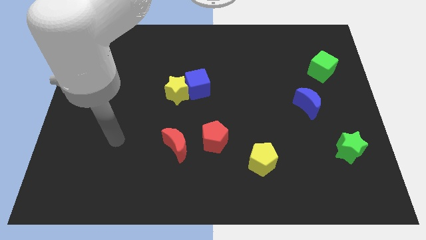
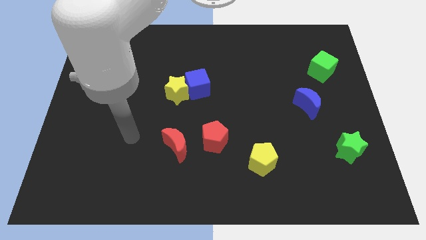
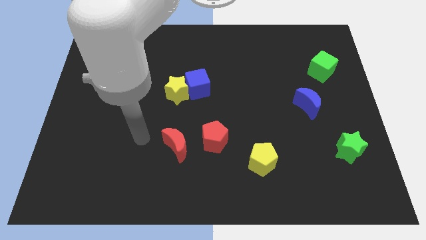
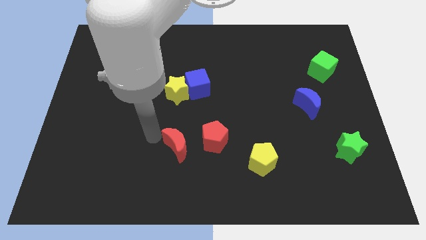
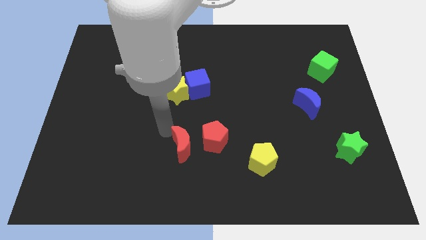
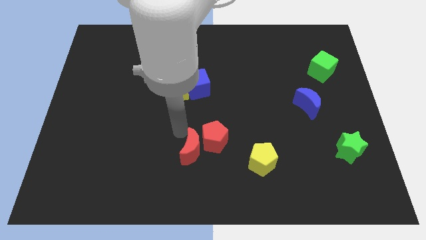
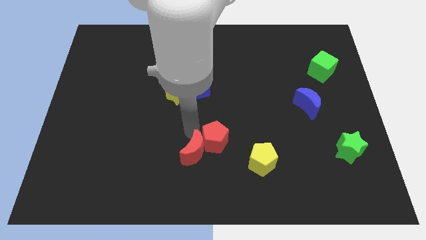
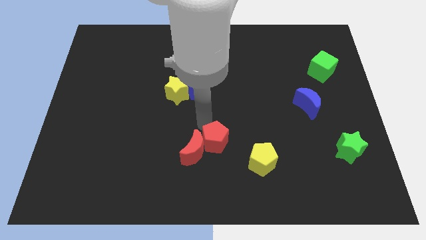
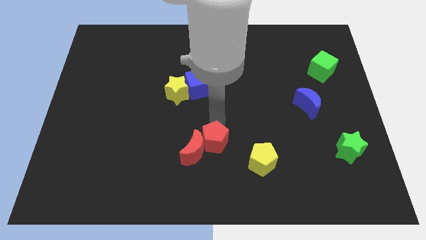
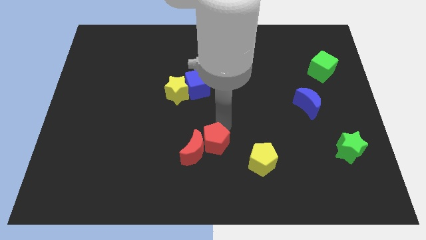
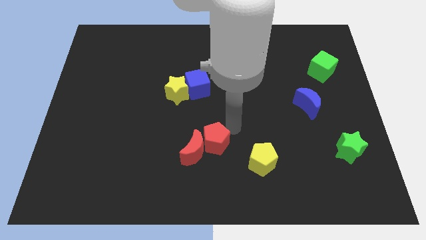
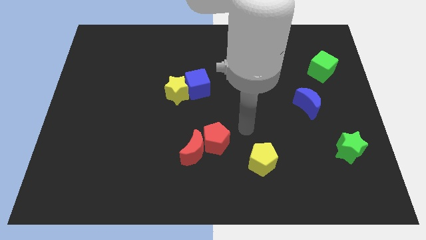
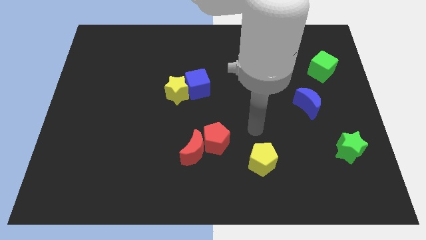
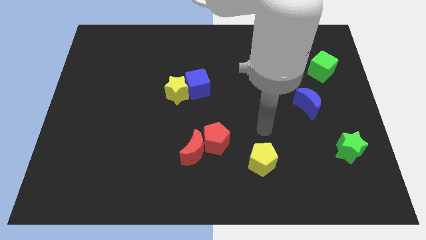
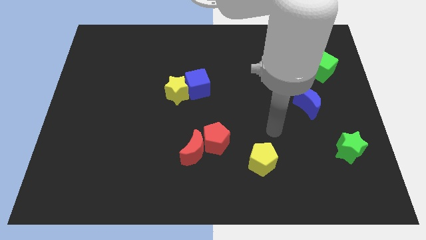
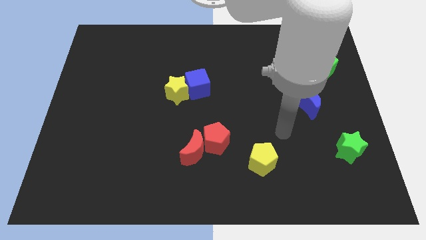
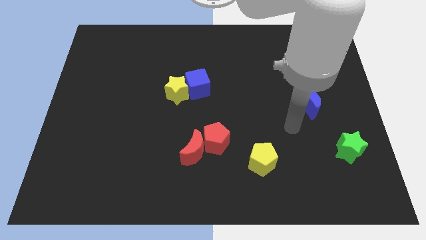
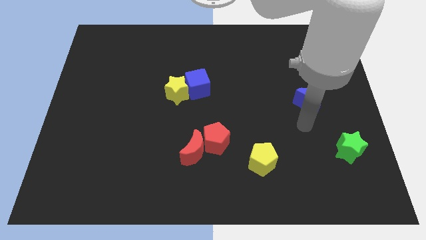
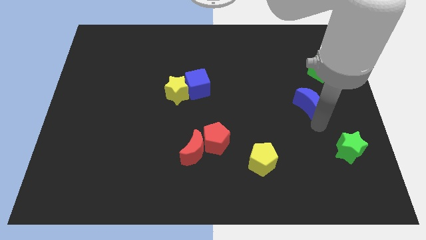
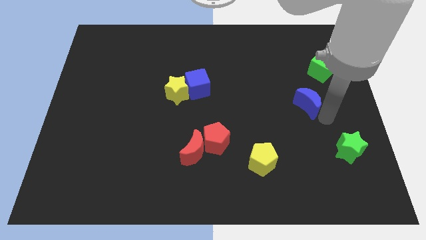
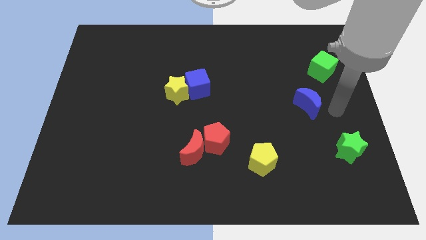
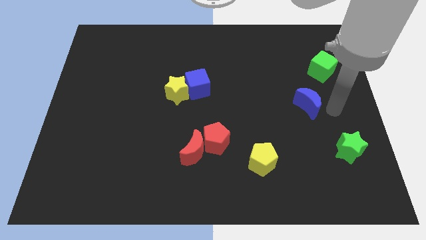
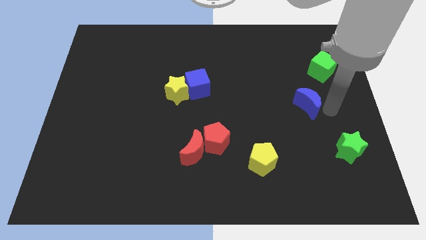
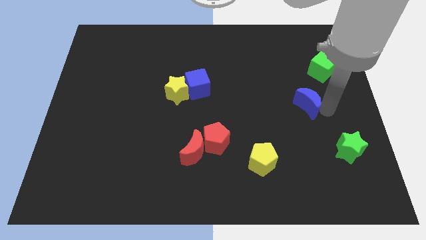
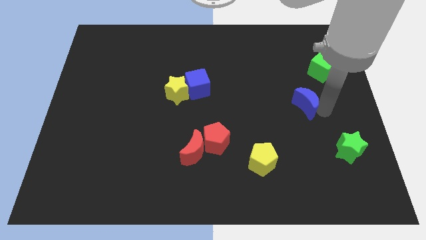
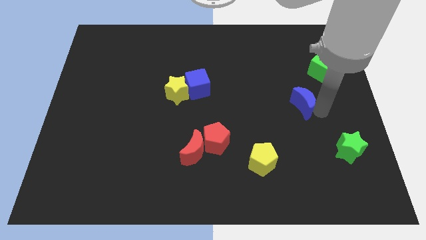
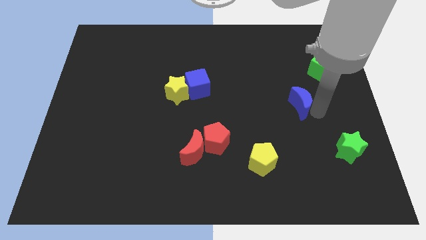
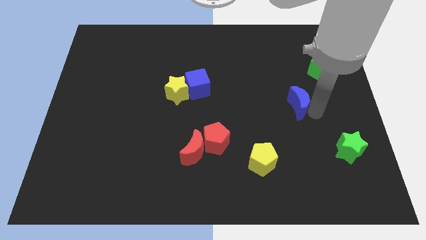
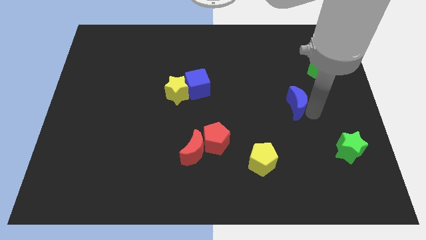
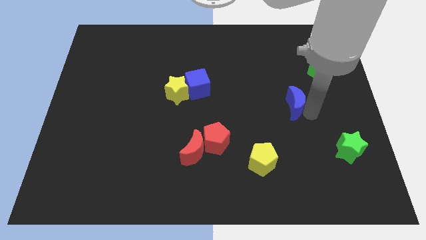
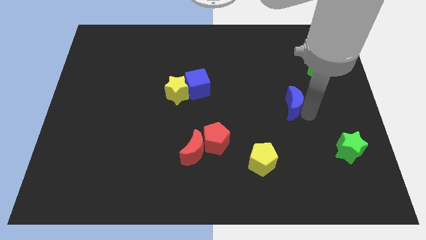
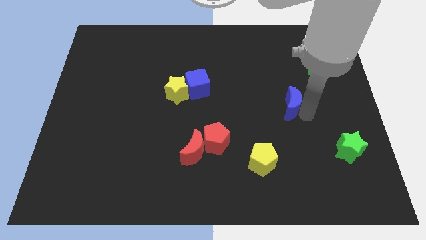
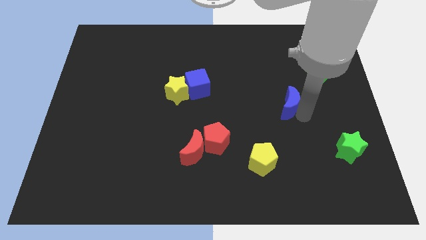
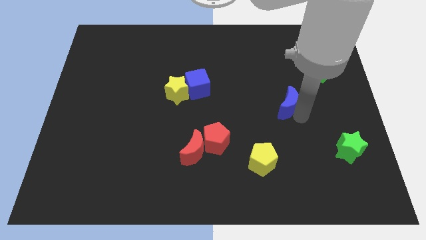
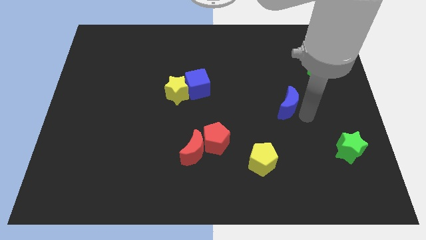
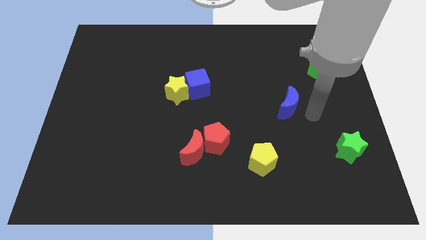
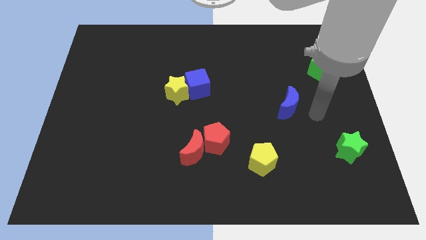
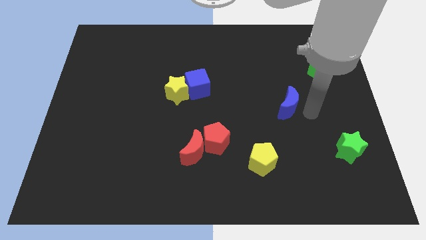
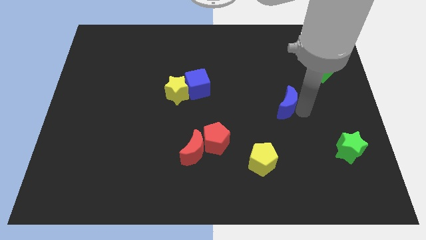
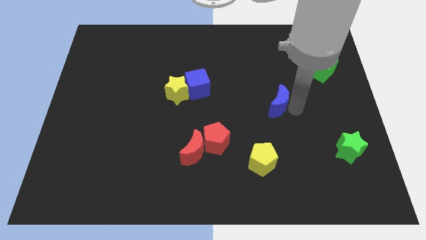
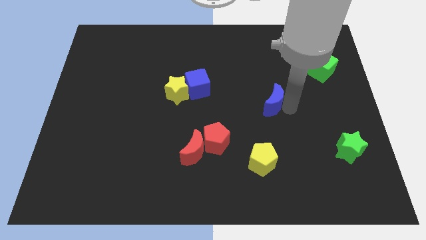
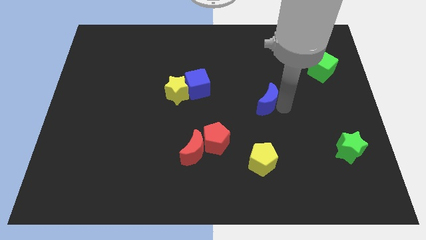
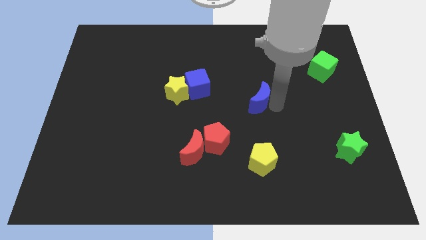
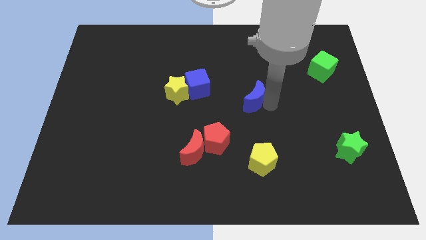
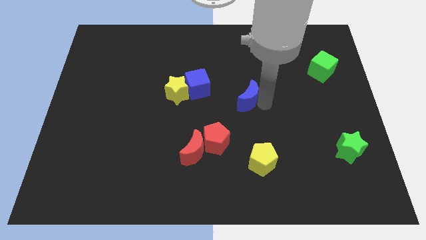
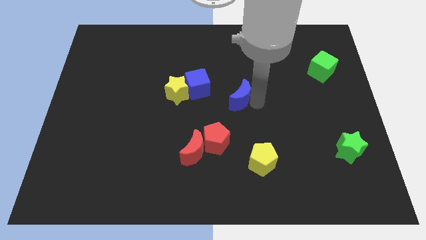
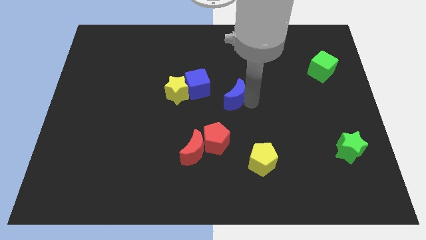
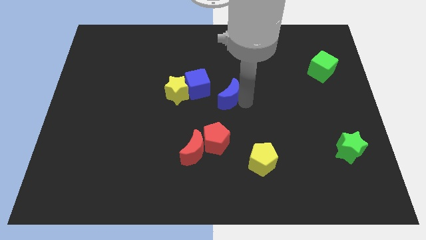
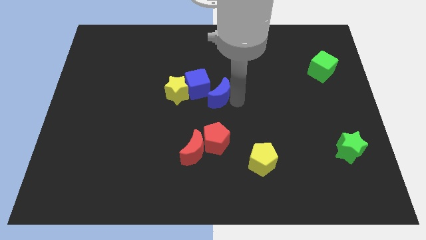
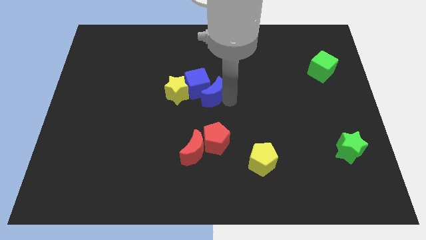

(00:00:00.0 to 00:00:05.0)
move the blue moon to the blue cube

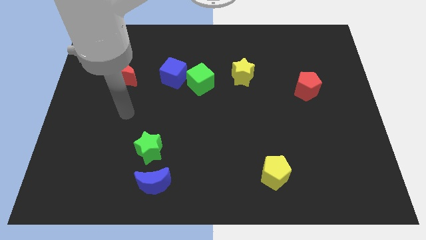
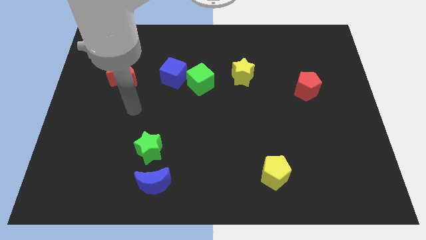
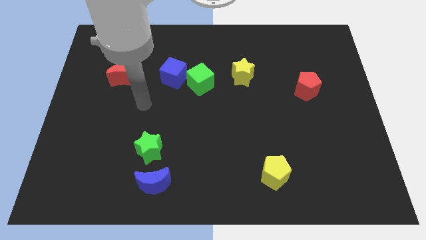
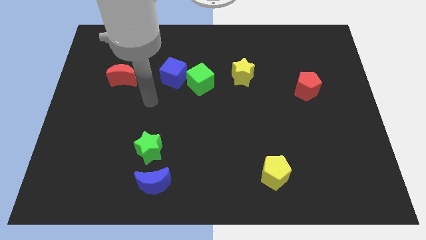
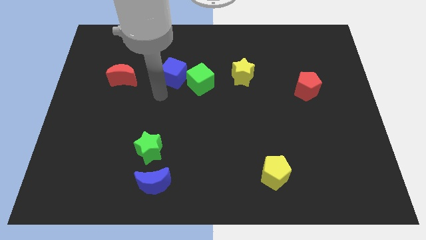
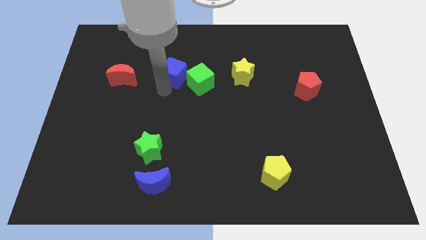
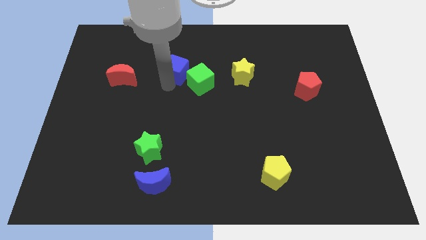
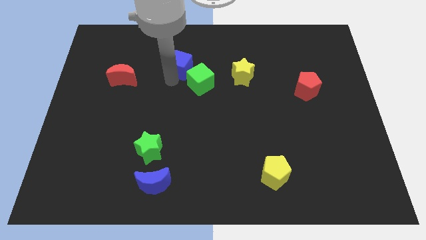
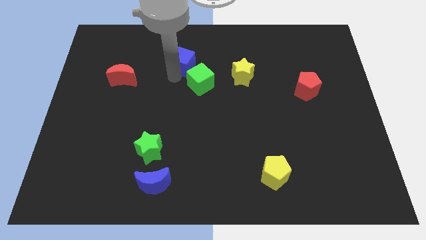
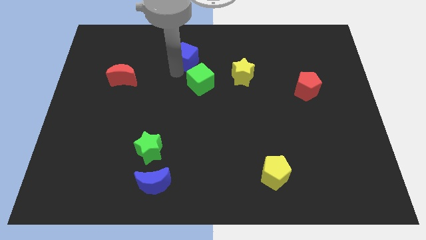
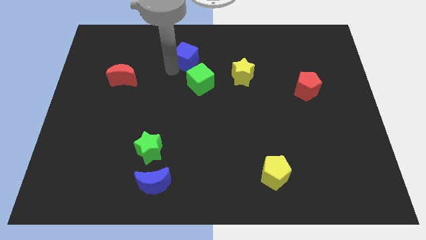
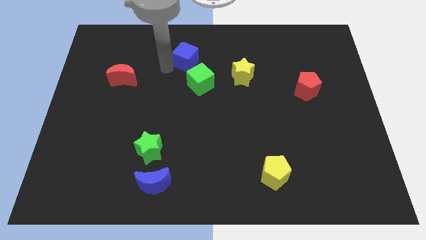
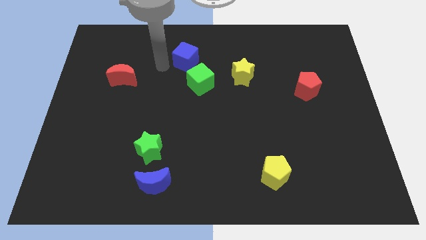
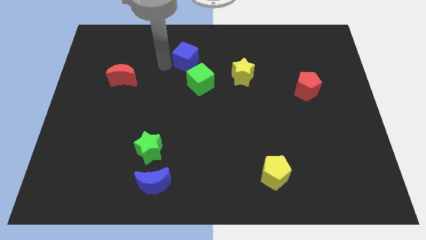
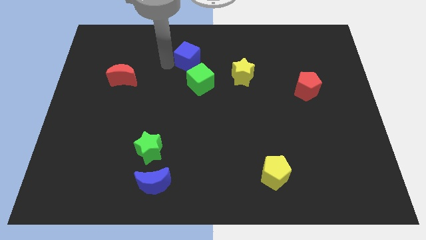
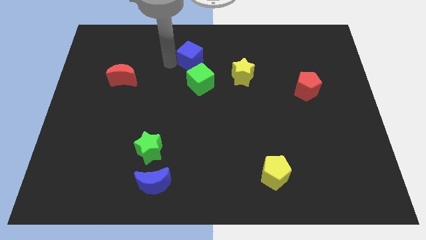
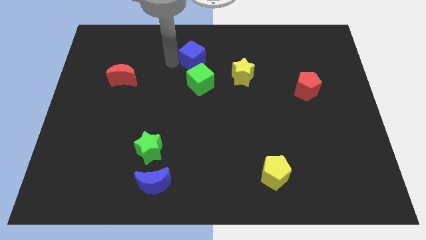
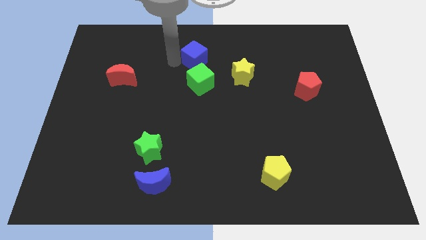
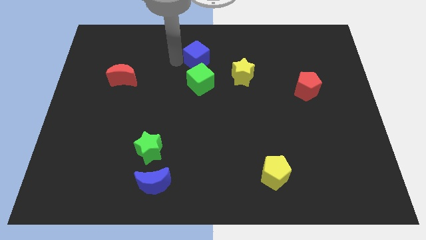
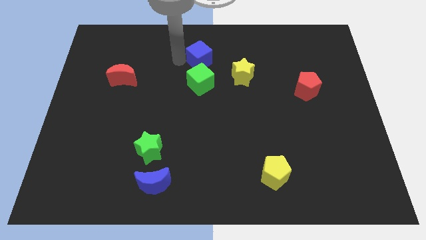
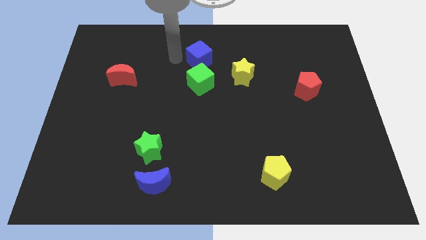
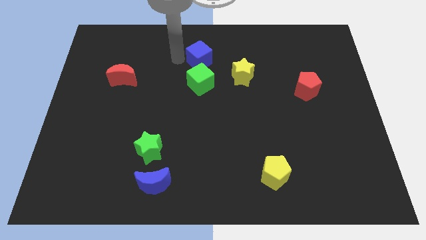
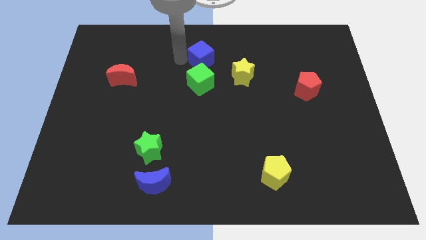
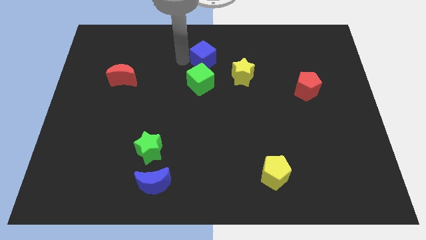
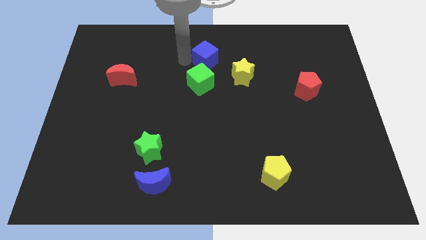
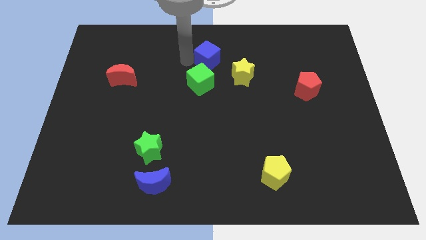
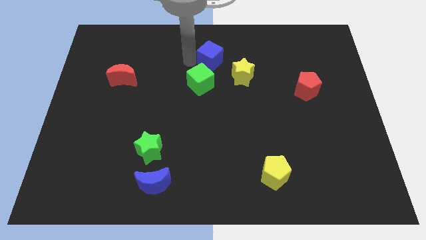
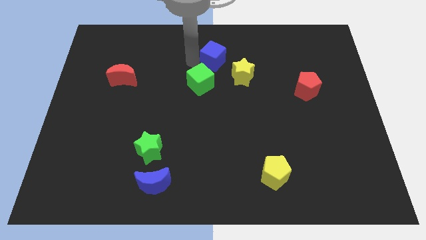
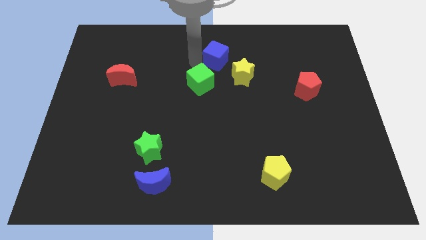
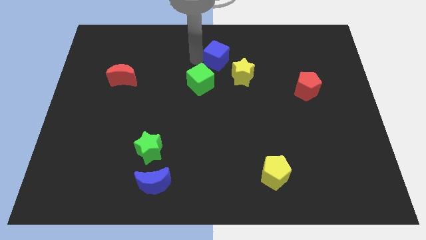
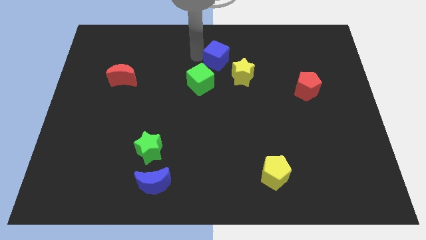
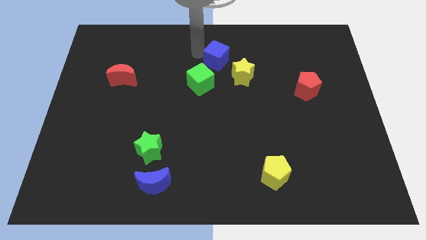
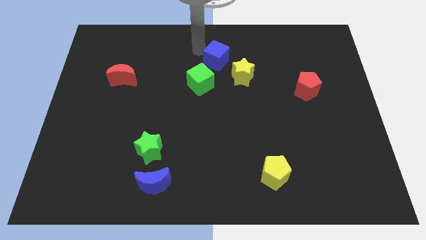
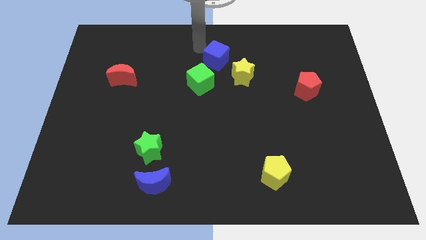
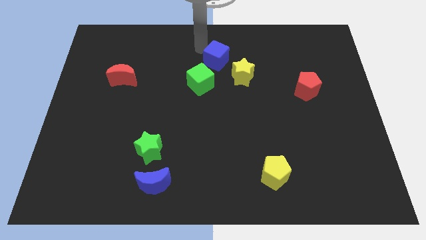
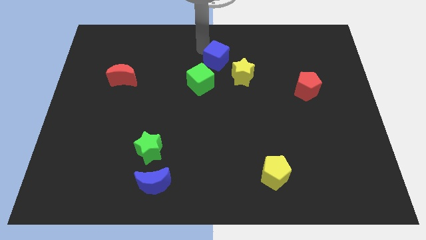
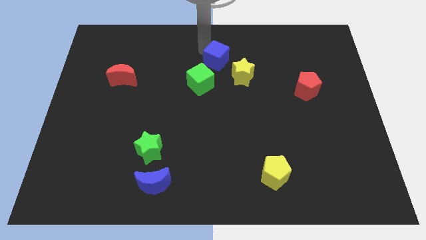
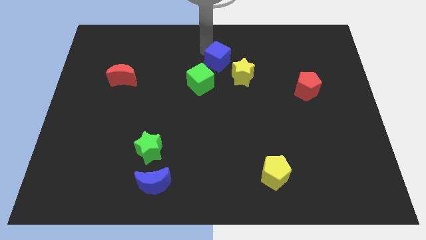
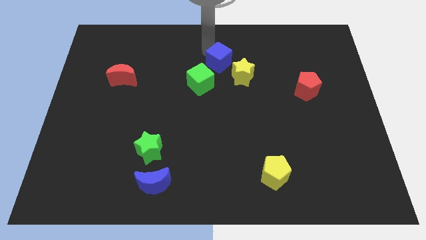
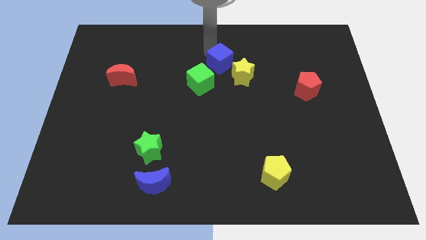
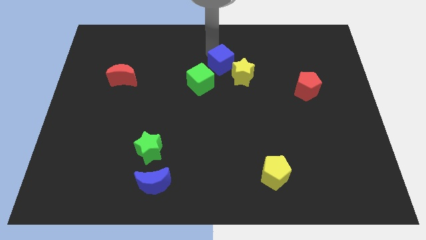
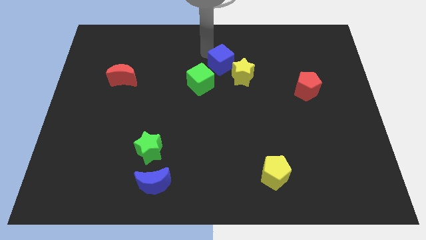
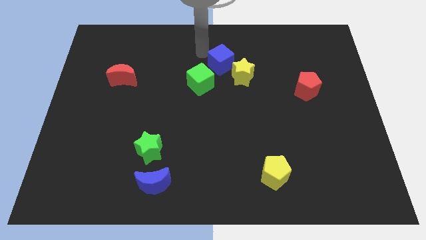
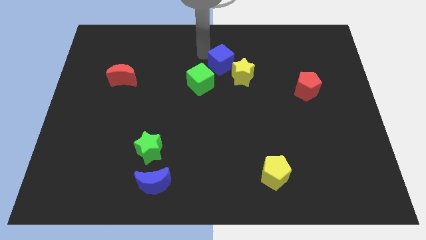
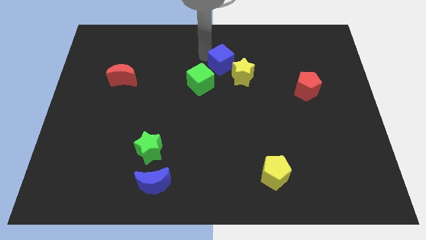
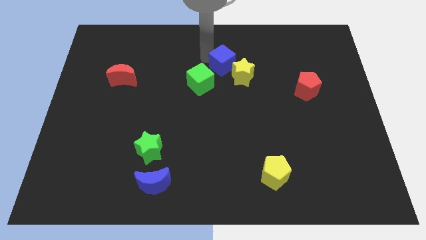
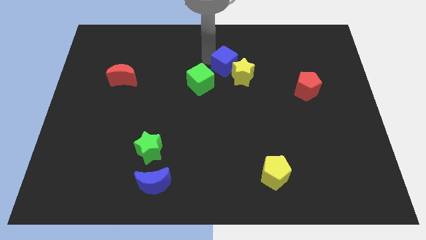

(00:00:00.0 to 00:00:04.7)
put the blue cube towards the yellow star
